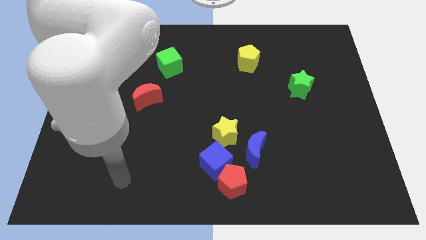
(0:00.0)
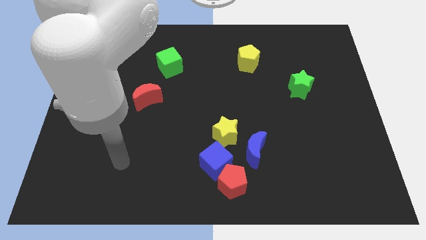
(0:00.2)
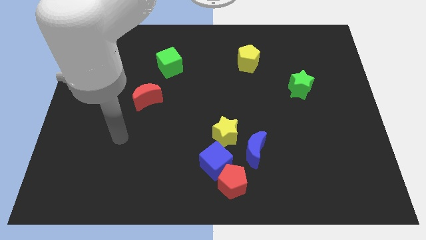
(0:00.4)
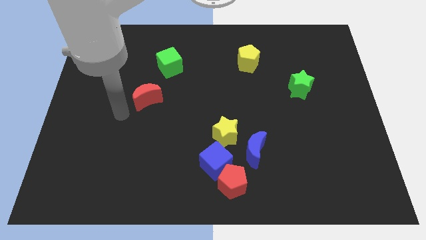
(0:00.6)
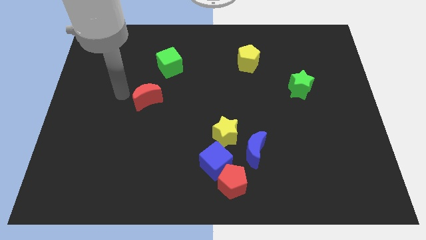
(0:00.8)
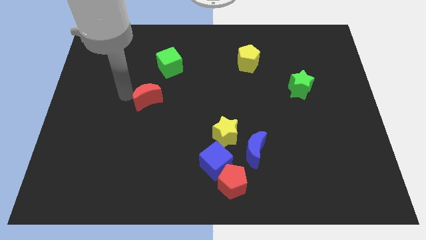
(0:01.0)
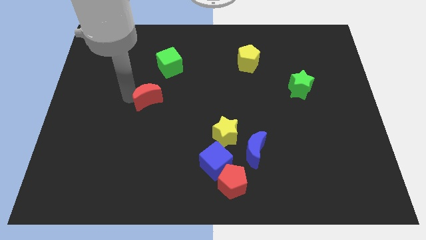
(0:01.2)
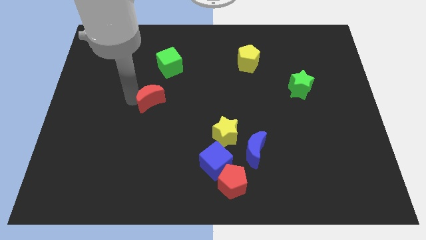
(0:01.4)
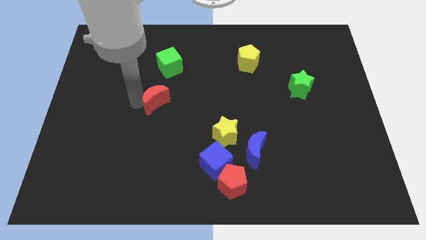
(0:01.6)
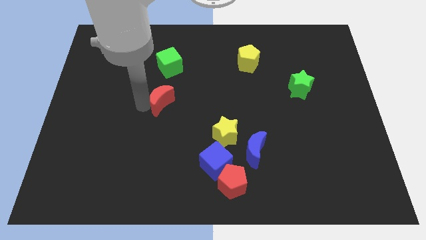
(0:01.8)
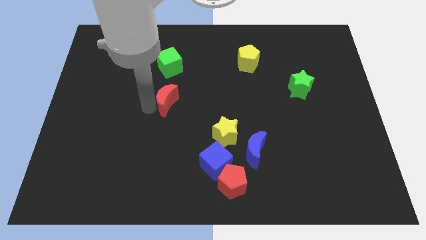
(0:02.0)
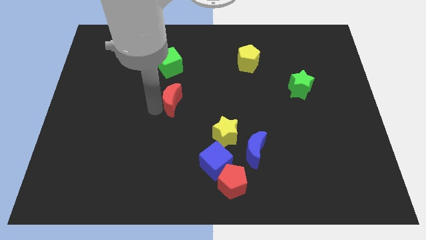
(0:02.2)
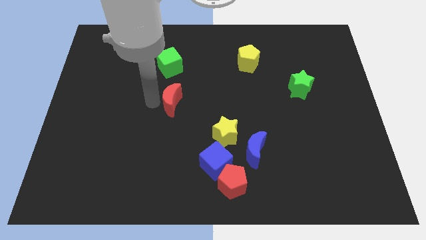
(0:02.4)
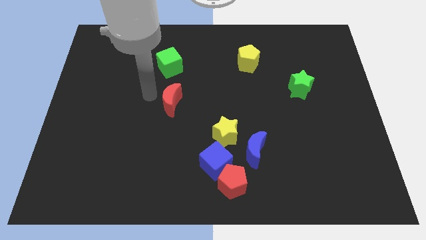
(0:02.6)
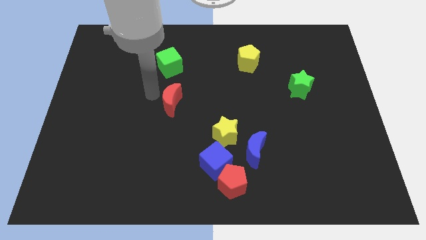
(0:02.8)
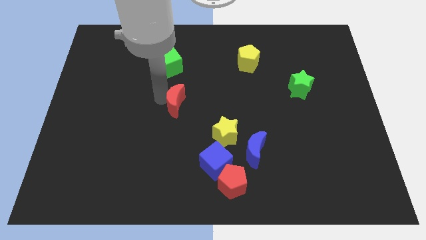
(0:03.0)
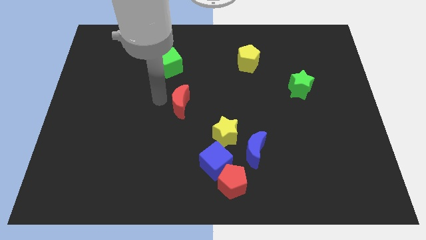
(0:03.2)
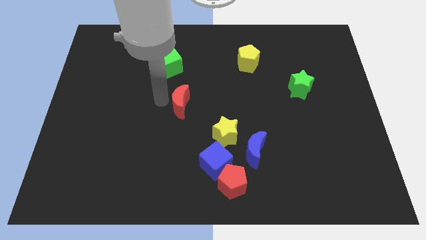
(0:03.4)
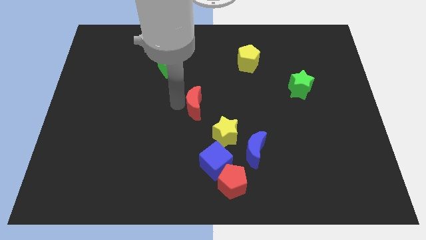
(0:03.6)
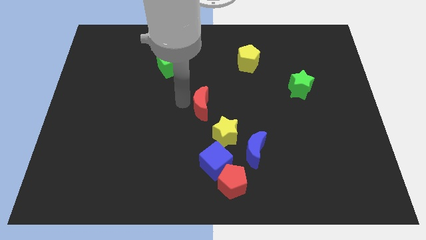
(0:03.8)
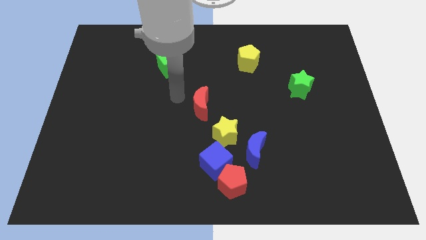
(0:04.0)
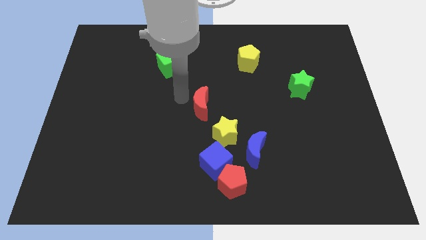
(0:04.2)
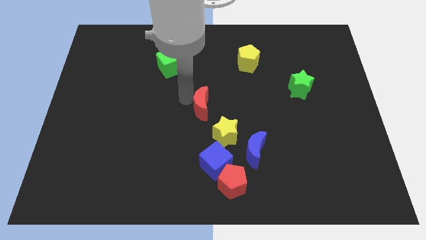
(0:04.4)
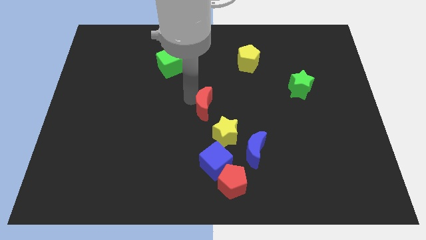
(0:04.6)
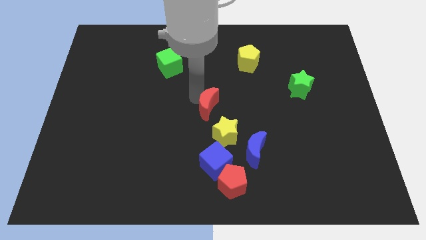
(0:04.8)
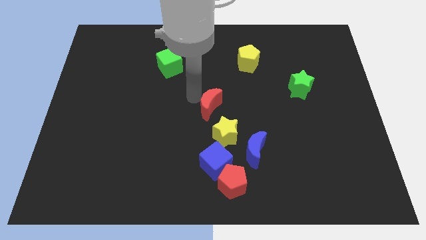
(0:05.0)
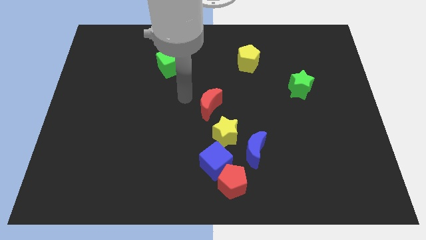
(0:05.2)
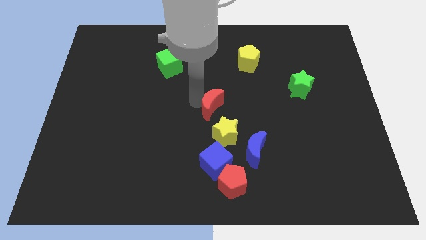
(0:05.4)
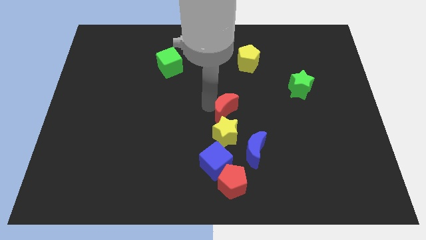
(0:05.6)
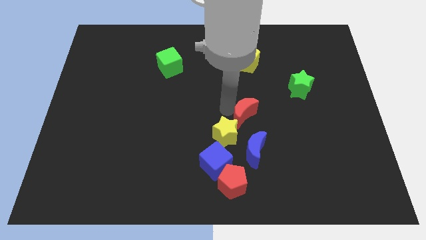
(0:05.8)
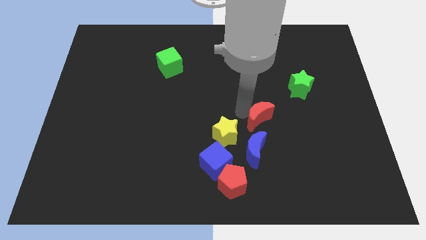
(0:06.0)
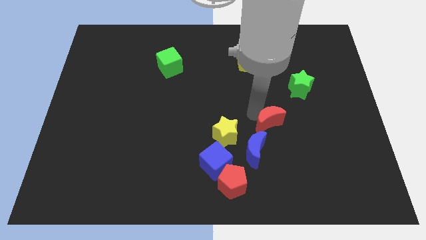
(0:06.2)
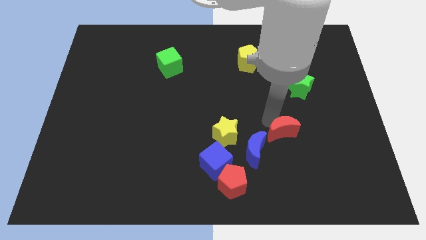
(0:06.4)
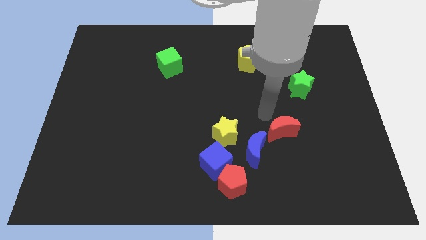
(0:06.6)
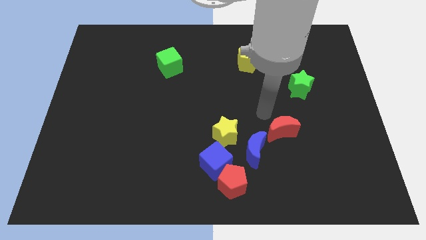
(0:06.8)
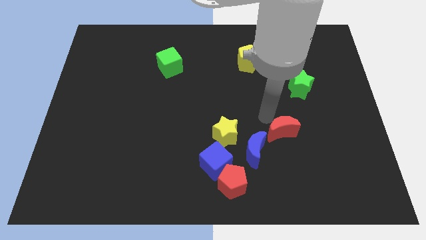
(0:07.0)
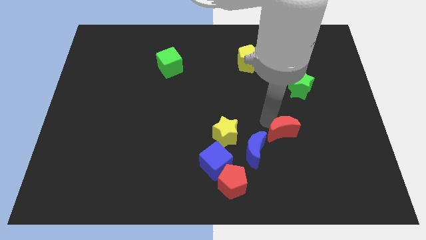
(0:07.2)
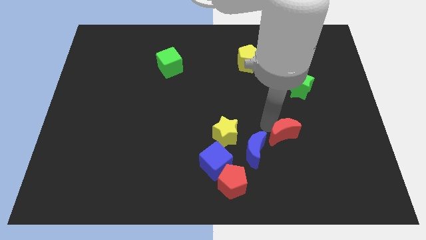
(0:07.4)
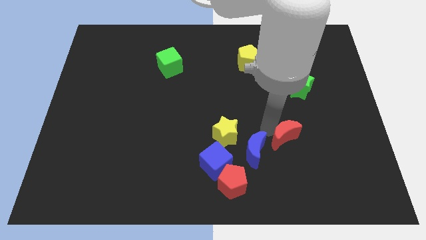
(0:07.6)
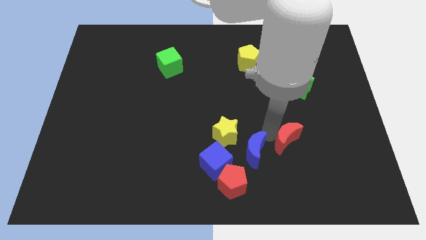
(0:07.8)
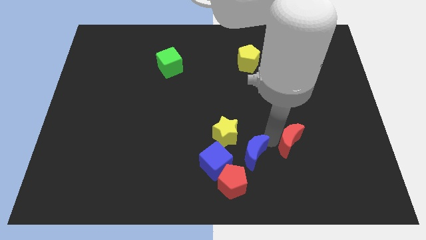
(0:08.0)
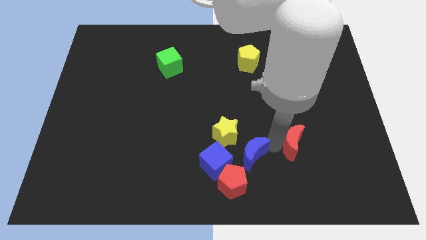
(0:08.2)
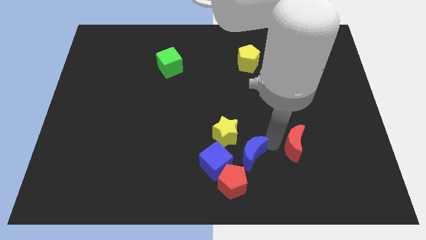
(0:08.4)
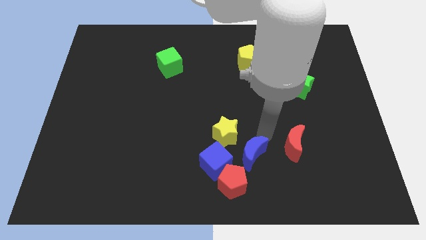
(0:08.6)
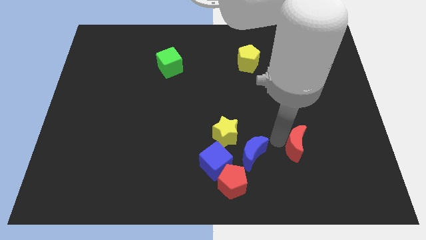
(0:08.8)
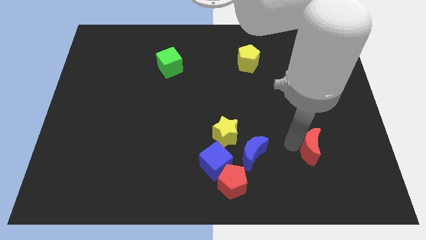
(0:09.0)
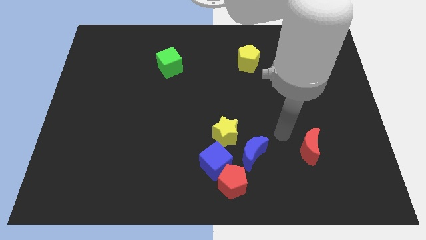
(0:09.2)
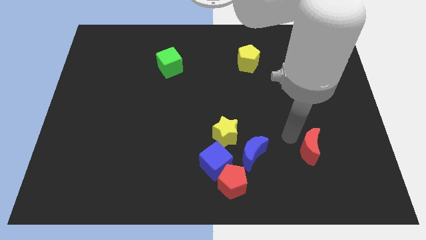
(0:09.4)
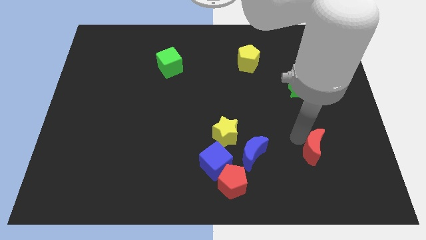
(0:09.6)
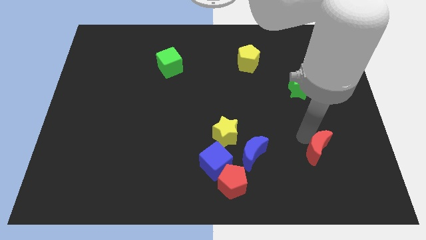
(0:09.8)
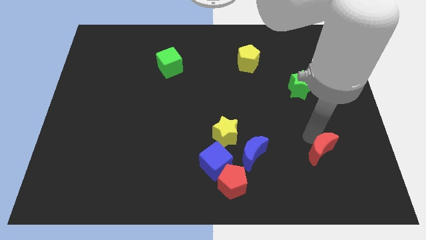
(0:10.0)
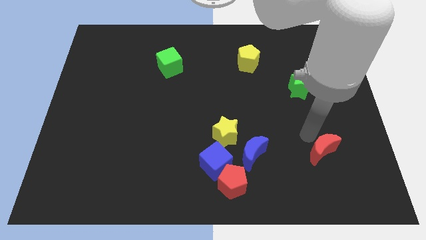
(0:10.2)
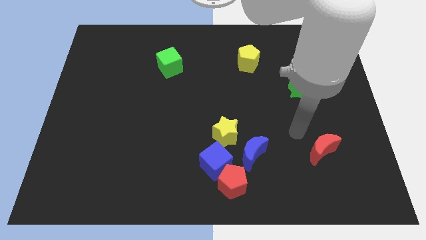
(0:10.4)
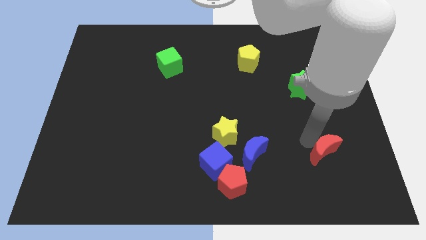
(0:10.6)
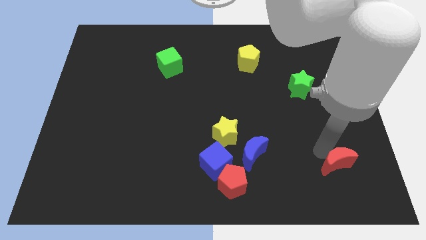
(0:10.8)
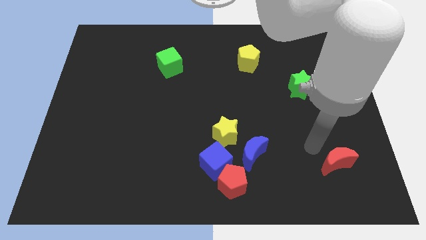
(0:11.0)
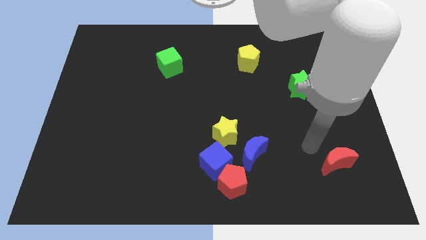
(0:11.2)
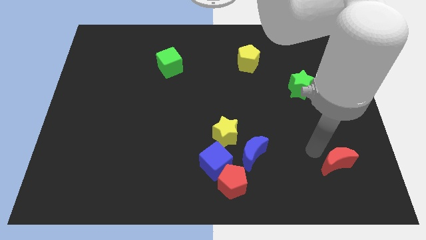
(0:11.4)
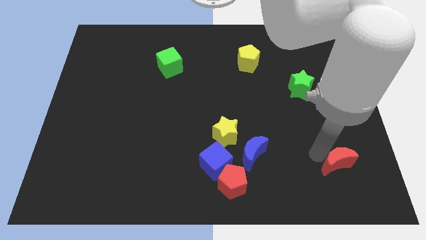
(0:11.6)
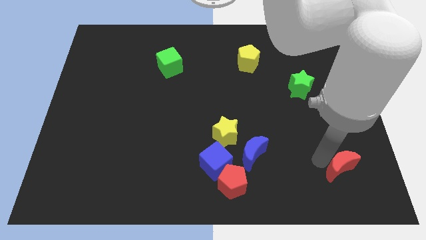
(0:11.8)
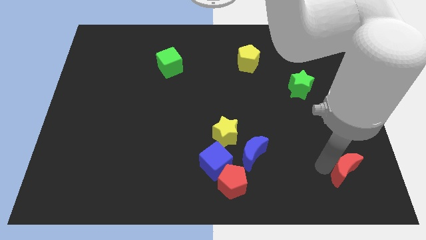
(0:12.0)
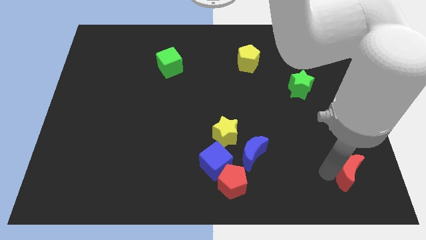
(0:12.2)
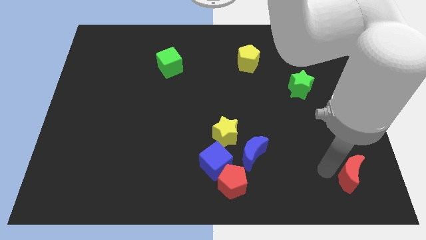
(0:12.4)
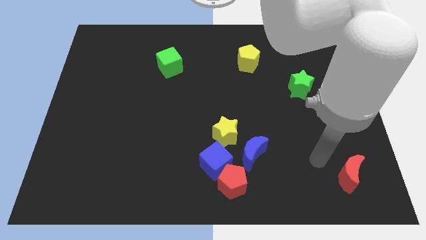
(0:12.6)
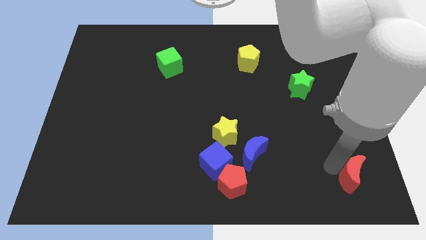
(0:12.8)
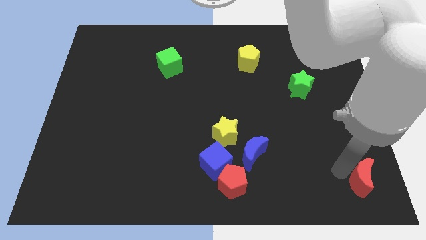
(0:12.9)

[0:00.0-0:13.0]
push the red moon to the bottom right corner
